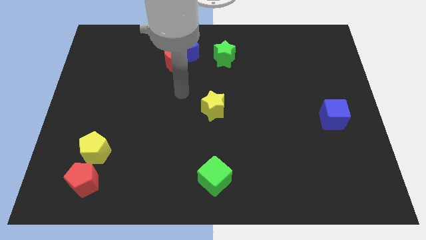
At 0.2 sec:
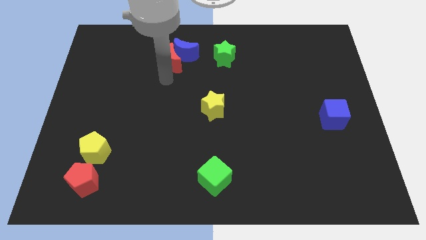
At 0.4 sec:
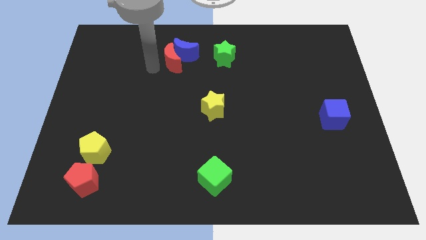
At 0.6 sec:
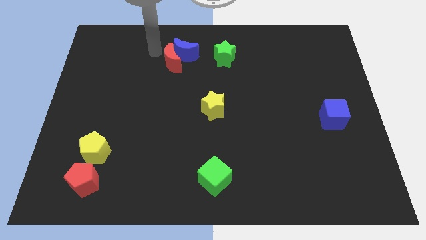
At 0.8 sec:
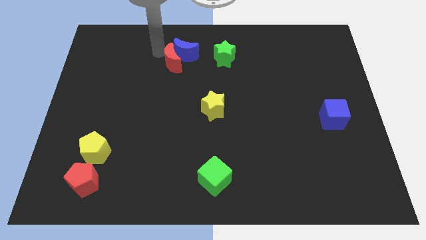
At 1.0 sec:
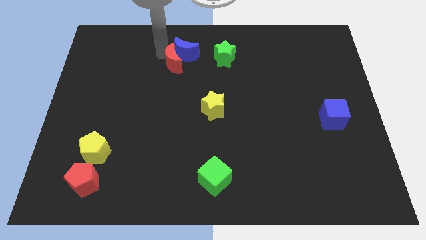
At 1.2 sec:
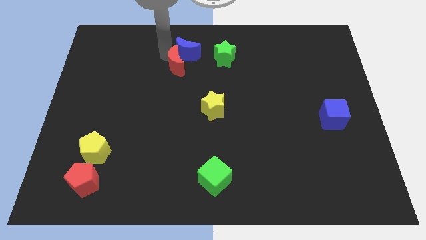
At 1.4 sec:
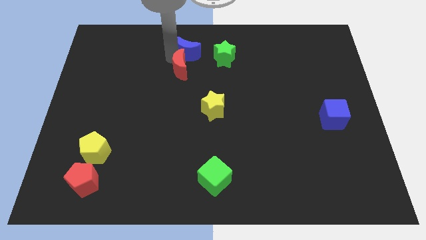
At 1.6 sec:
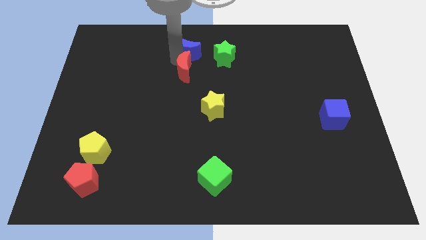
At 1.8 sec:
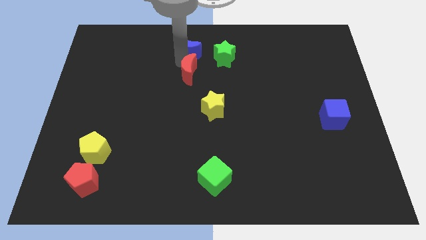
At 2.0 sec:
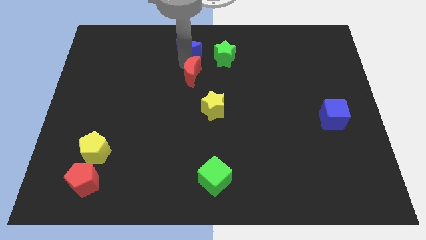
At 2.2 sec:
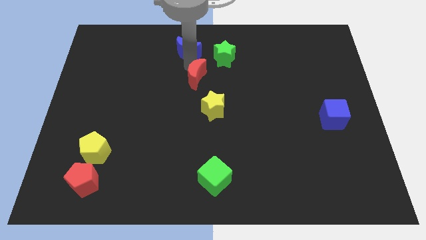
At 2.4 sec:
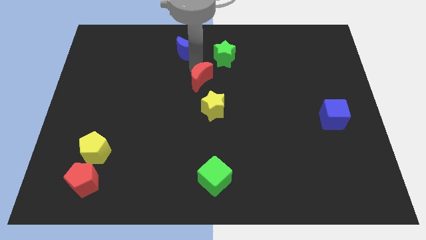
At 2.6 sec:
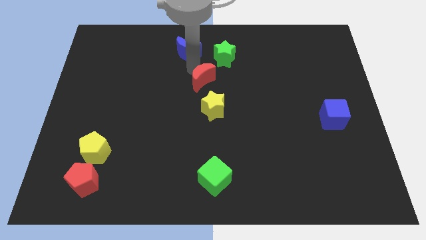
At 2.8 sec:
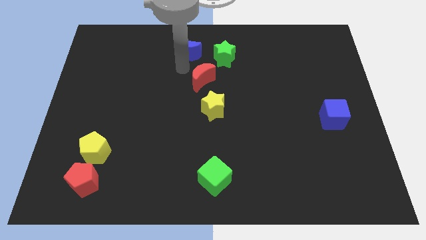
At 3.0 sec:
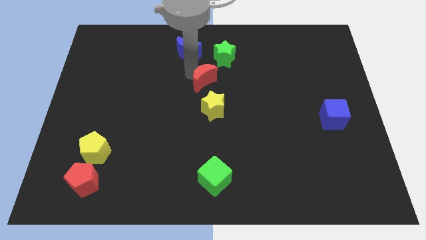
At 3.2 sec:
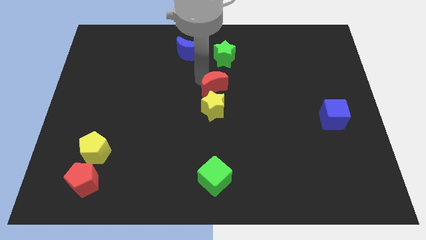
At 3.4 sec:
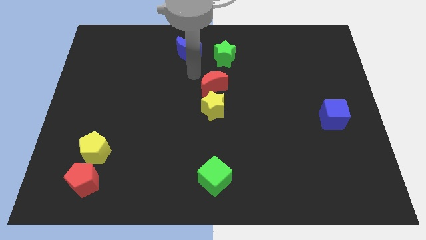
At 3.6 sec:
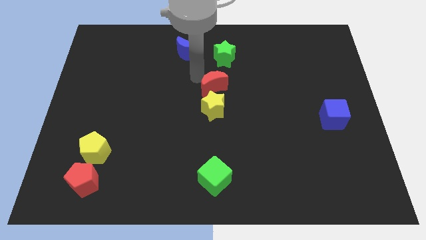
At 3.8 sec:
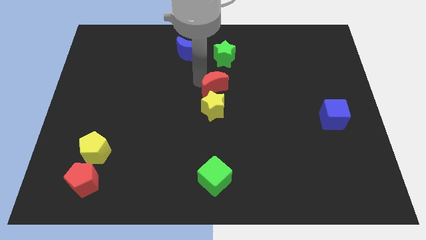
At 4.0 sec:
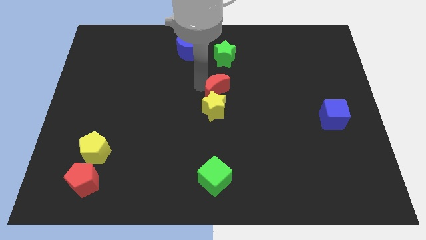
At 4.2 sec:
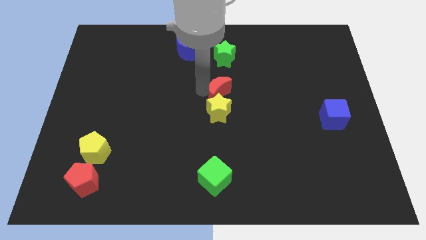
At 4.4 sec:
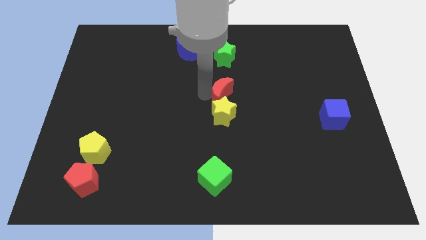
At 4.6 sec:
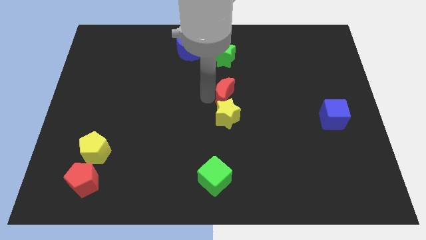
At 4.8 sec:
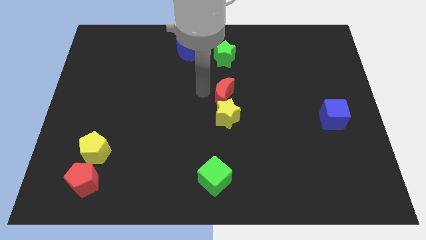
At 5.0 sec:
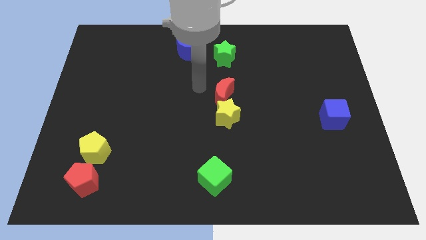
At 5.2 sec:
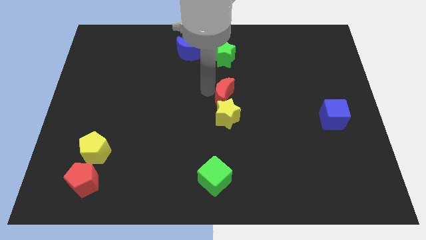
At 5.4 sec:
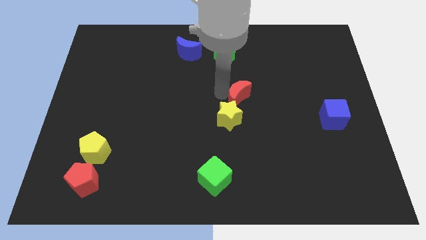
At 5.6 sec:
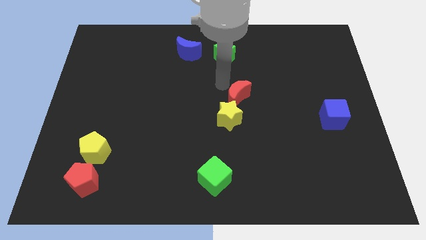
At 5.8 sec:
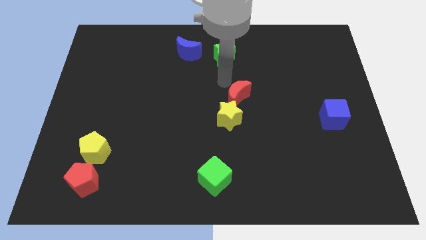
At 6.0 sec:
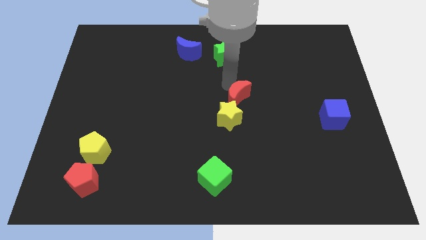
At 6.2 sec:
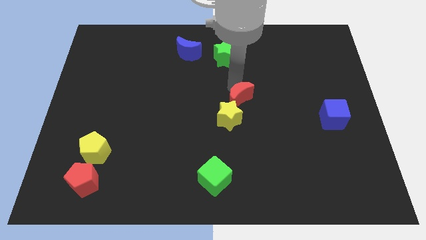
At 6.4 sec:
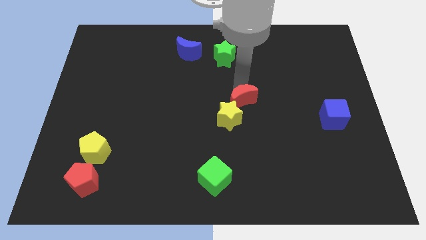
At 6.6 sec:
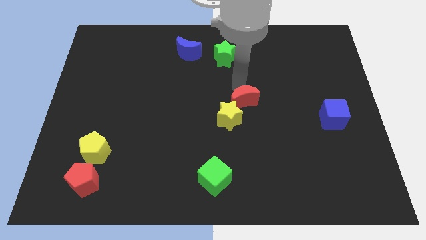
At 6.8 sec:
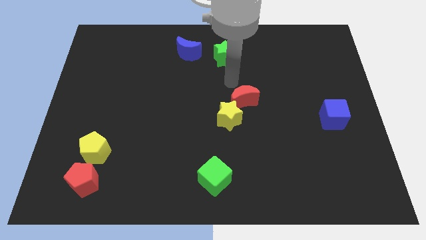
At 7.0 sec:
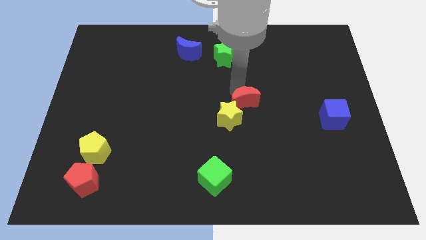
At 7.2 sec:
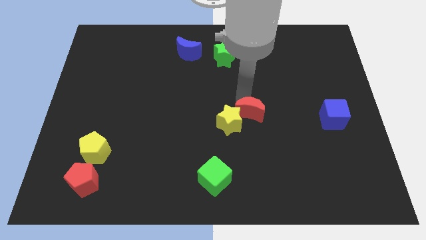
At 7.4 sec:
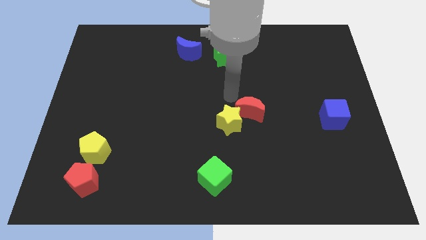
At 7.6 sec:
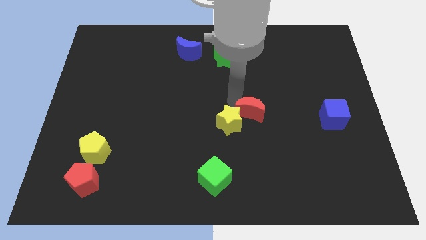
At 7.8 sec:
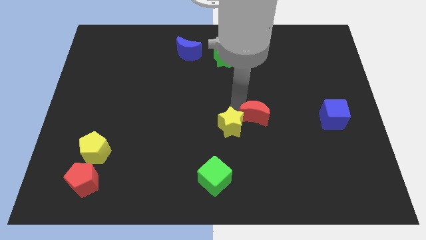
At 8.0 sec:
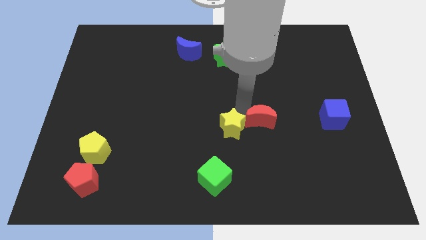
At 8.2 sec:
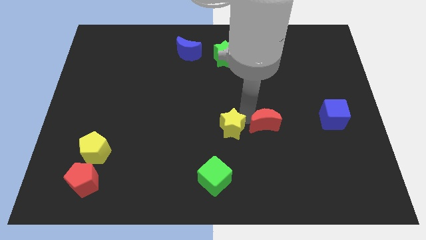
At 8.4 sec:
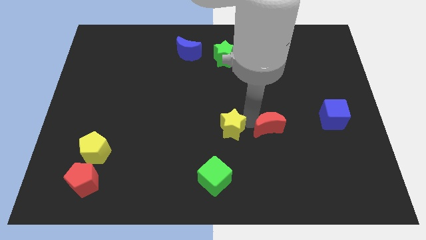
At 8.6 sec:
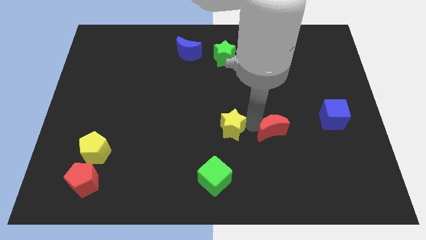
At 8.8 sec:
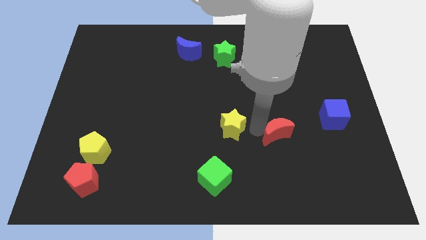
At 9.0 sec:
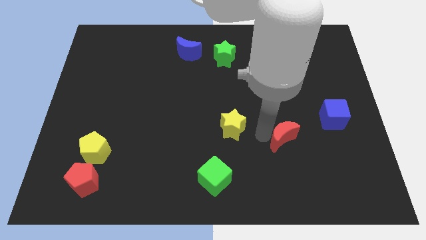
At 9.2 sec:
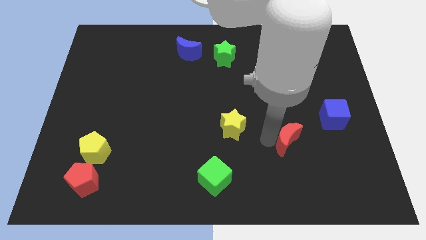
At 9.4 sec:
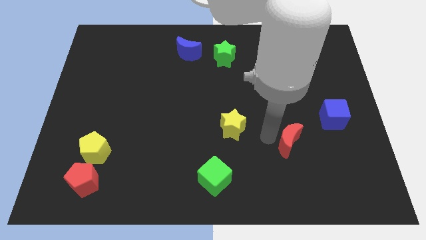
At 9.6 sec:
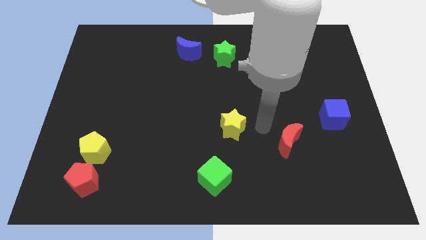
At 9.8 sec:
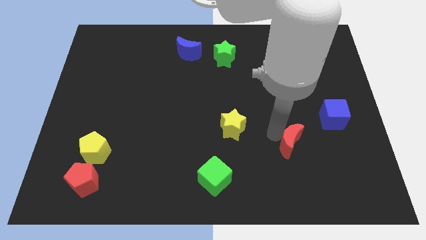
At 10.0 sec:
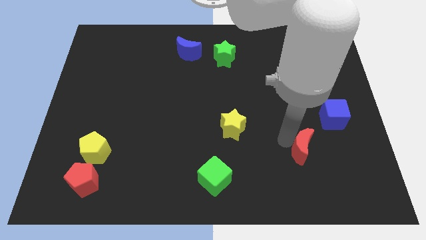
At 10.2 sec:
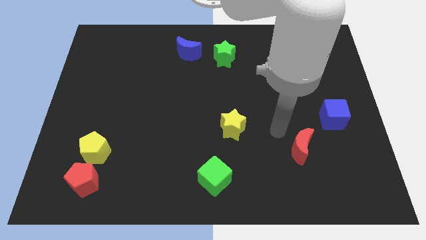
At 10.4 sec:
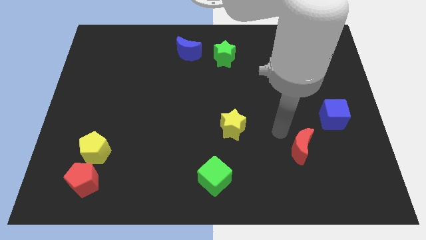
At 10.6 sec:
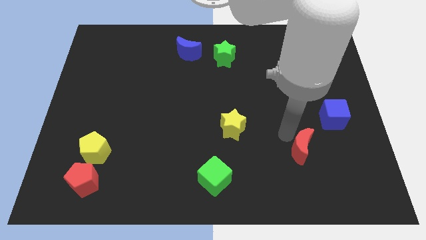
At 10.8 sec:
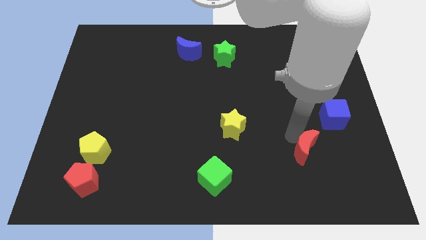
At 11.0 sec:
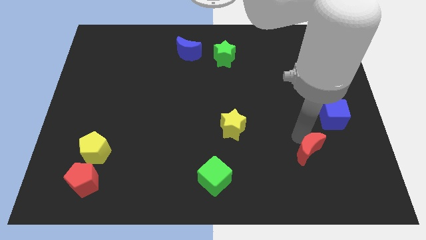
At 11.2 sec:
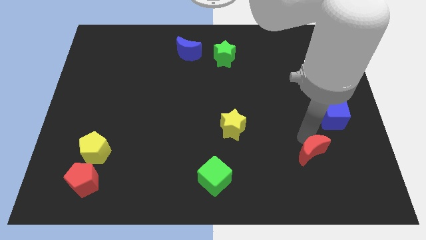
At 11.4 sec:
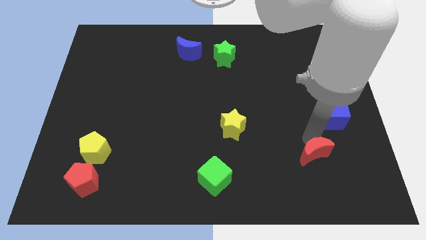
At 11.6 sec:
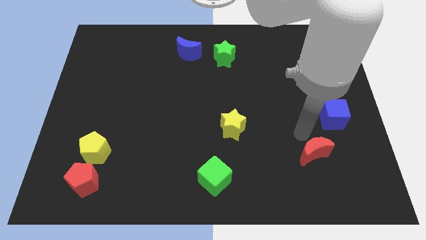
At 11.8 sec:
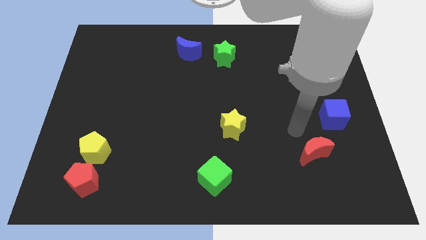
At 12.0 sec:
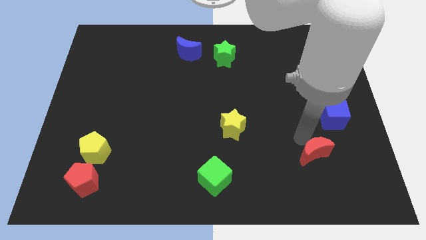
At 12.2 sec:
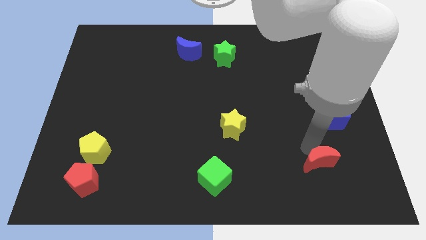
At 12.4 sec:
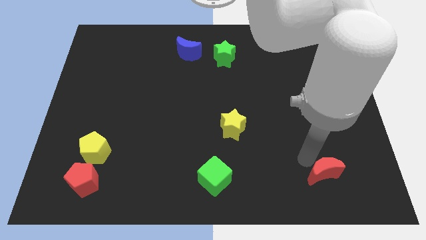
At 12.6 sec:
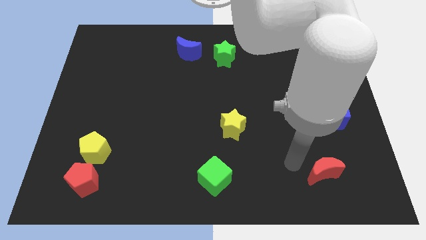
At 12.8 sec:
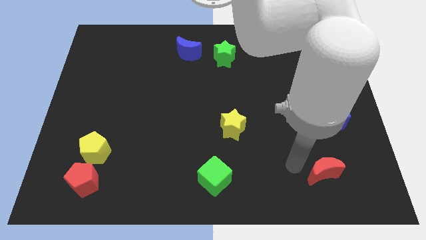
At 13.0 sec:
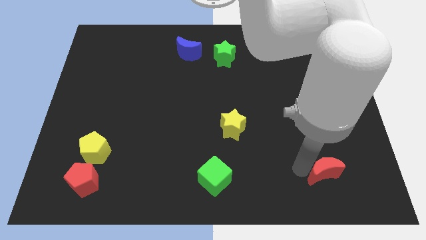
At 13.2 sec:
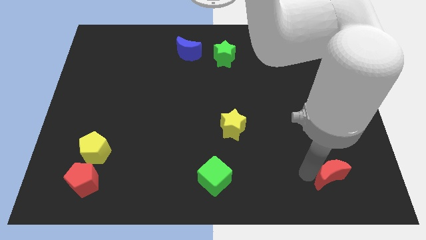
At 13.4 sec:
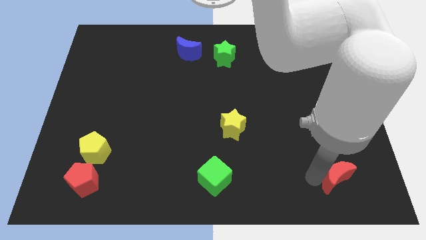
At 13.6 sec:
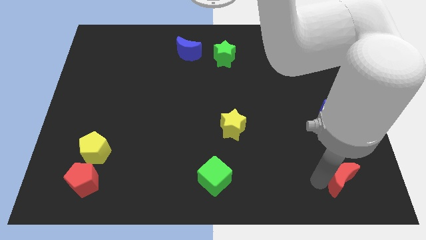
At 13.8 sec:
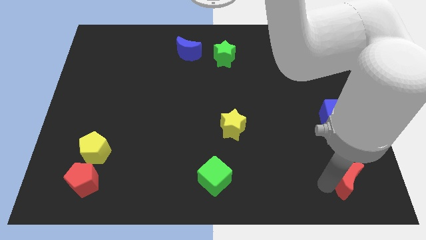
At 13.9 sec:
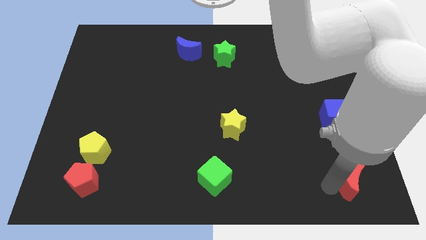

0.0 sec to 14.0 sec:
put the red moon to the bottom right of the board
